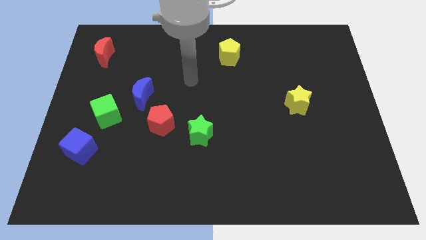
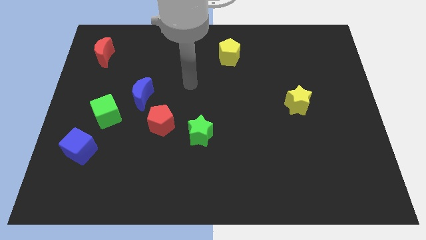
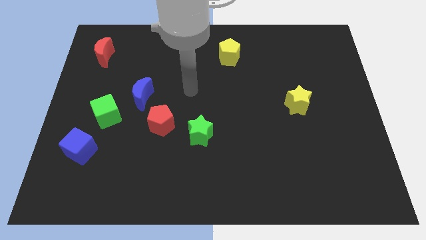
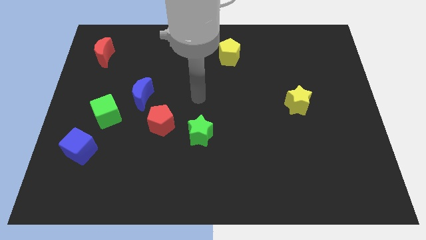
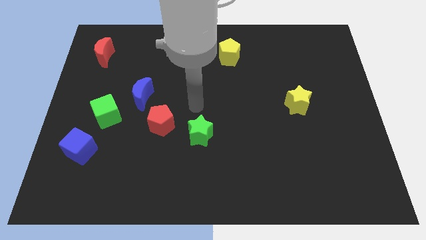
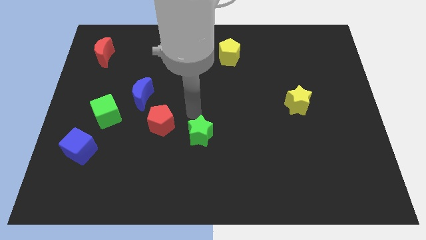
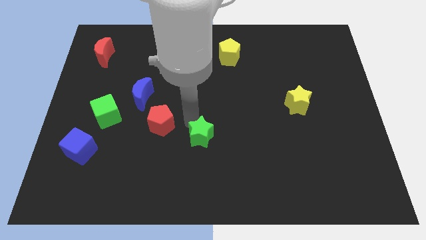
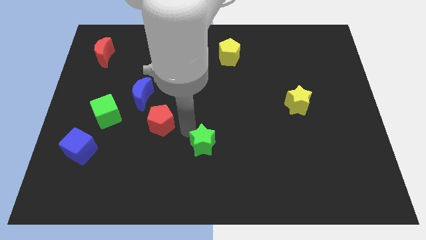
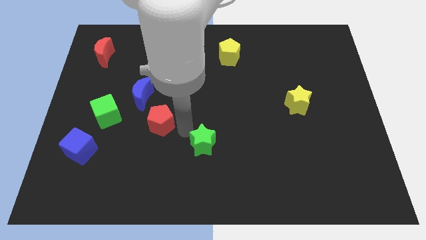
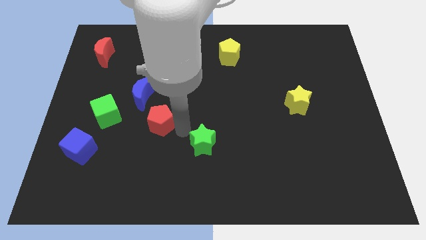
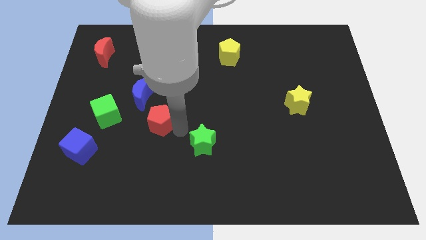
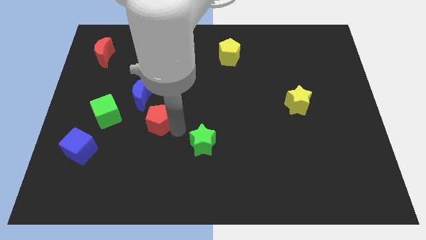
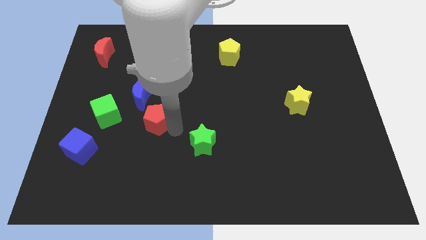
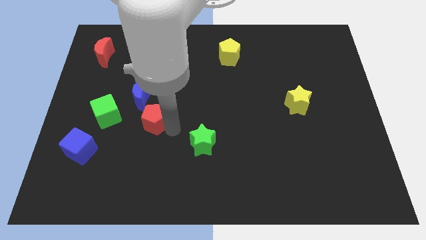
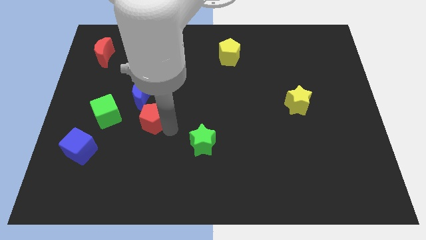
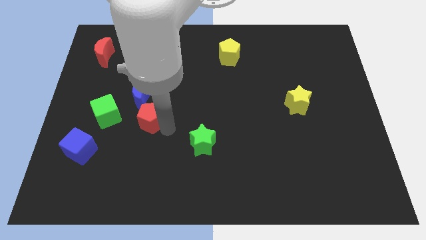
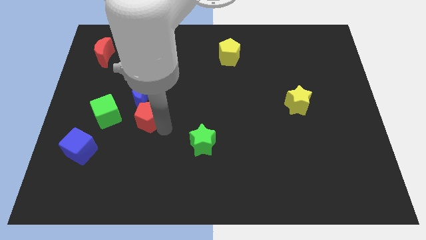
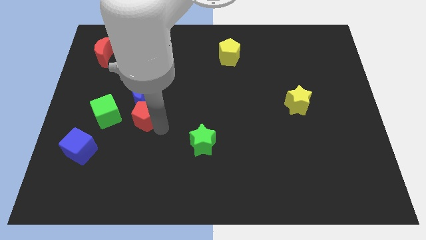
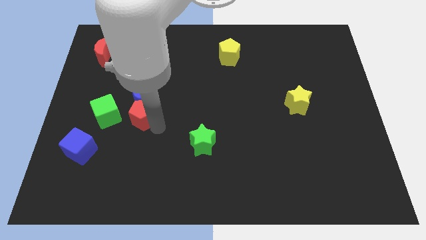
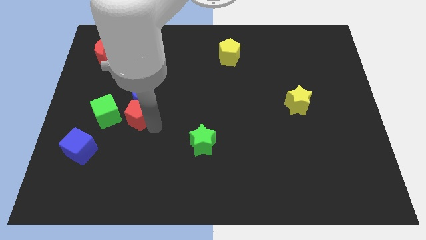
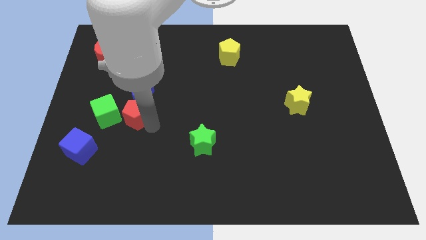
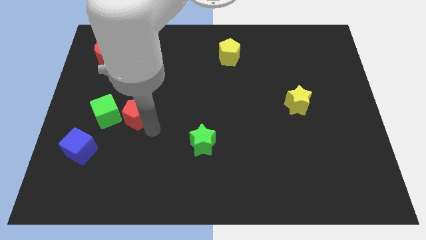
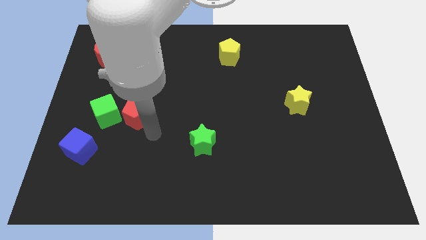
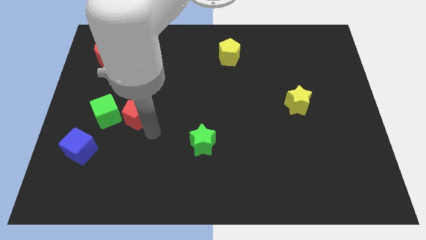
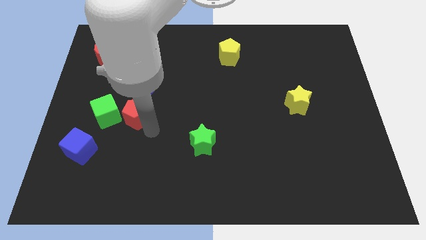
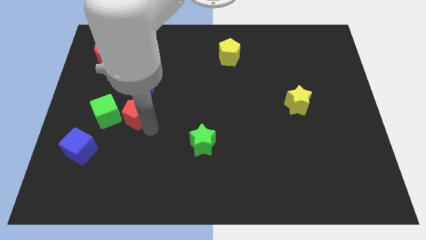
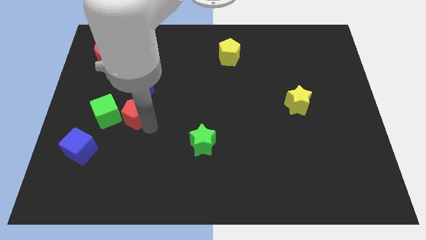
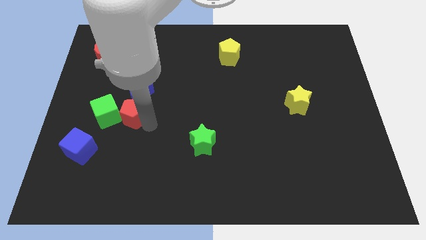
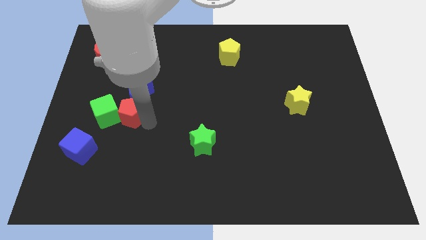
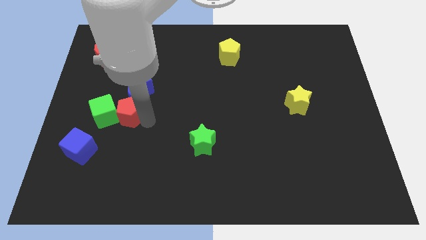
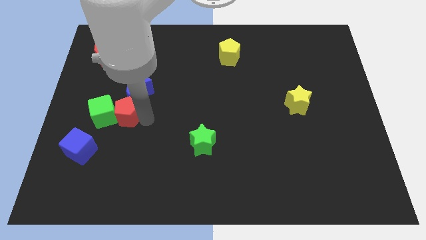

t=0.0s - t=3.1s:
push the red pentagon somewhat up and left diagonally

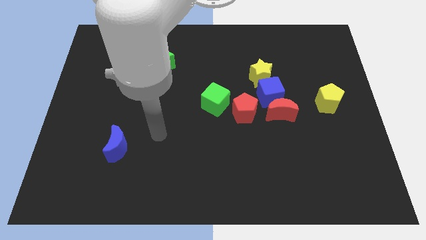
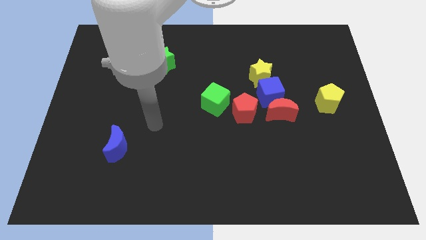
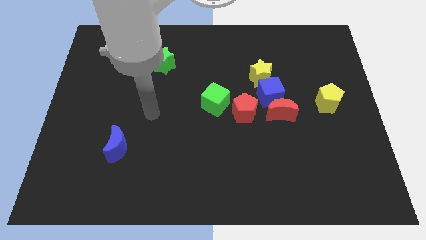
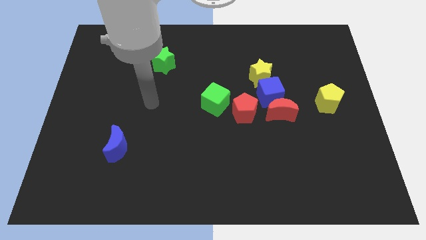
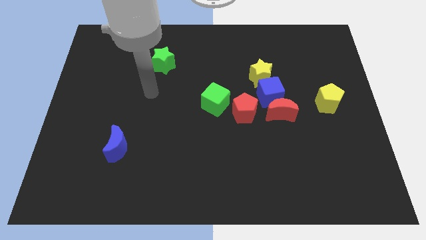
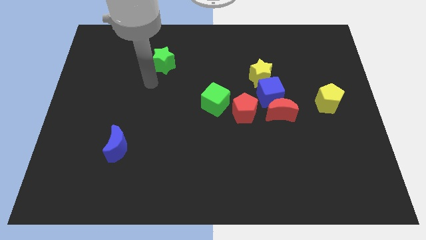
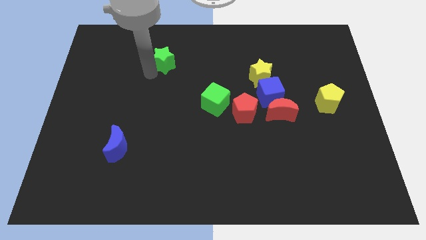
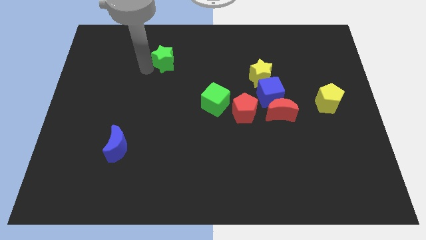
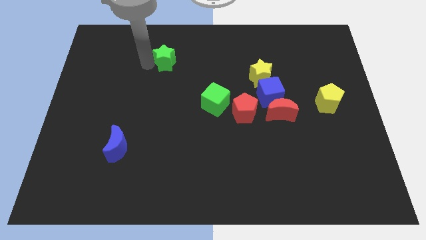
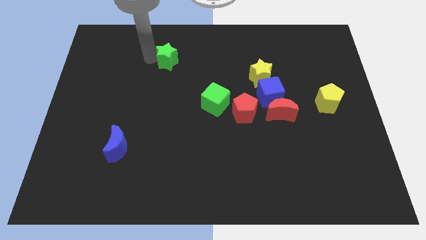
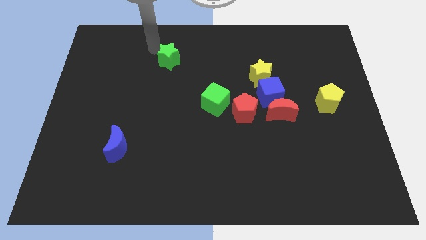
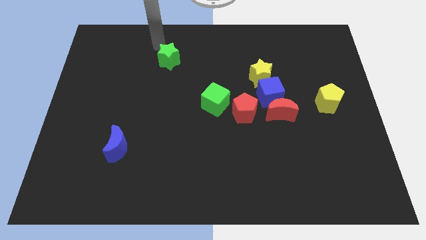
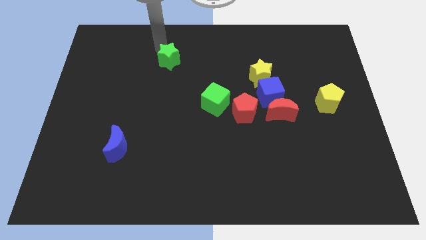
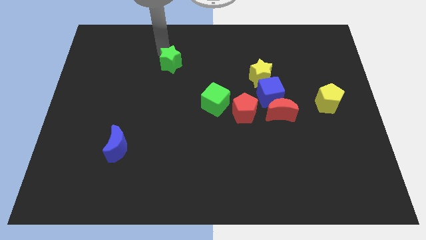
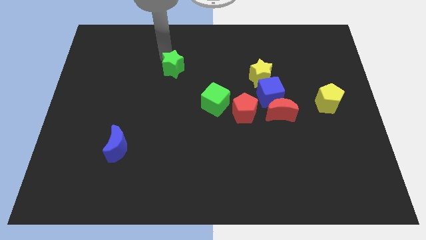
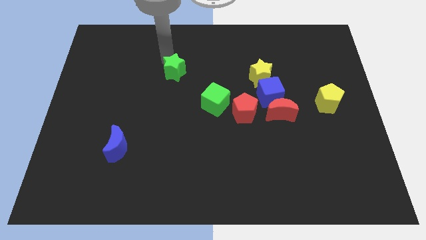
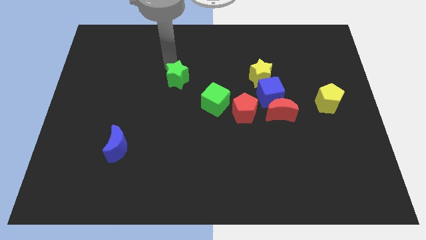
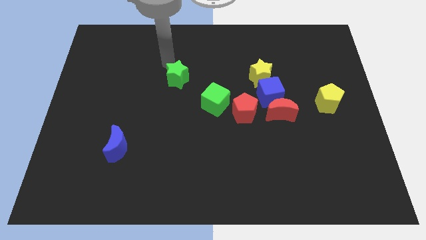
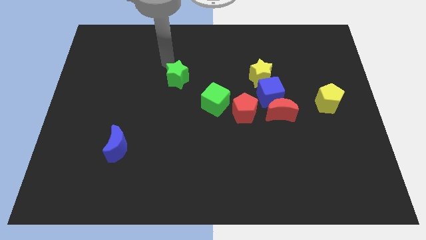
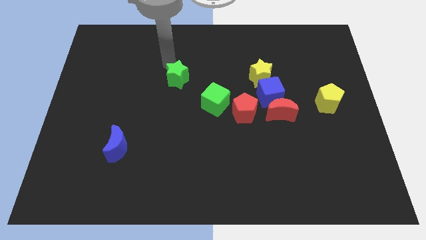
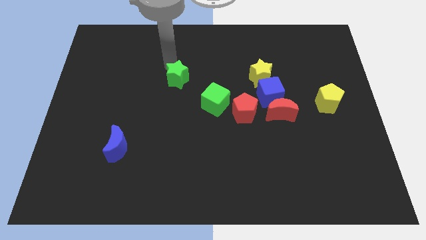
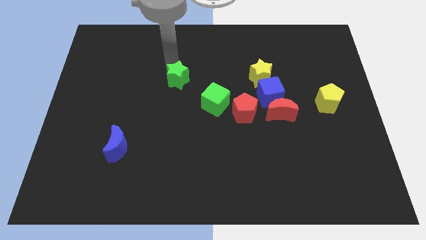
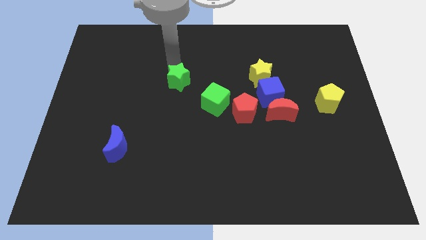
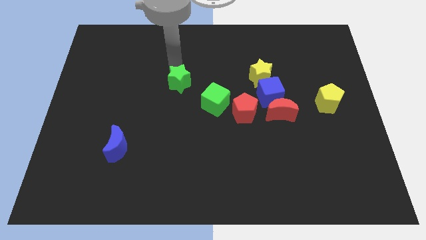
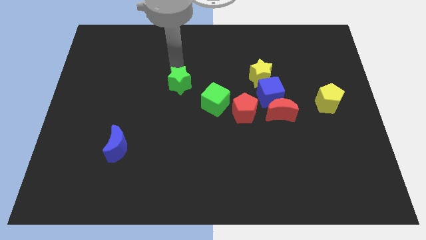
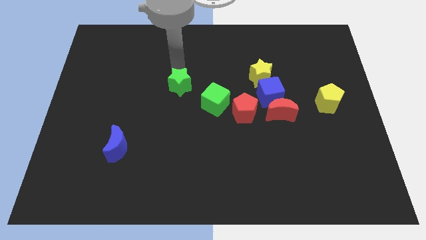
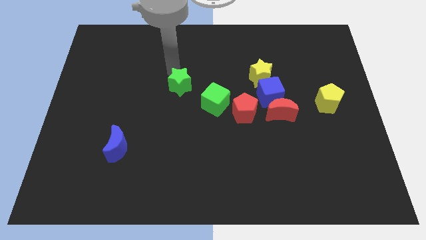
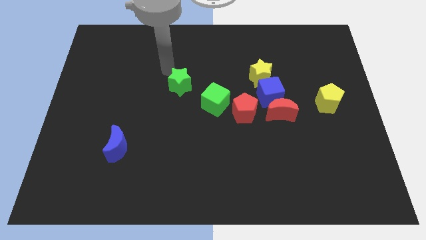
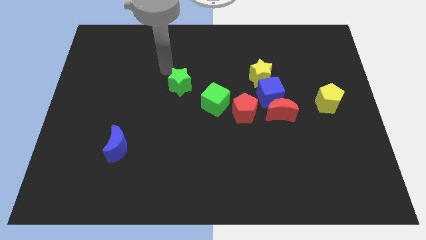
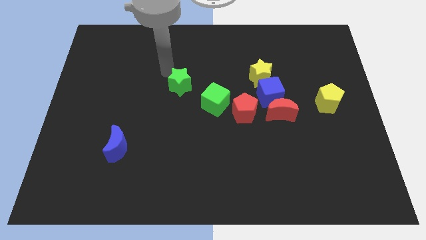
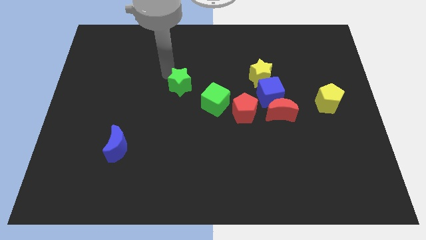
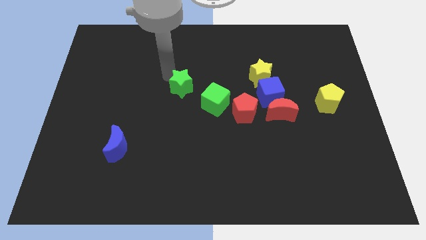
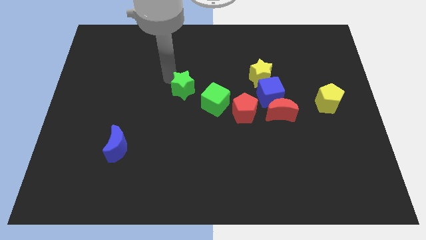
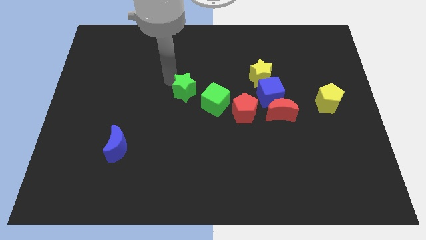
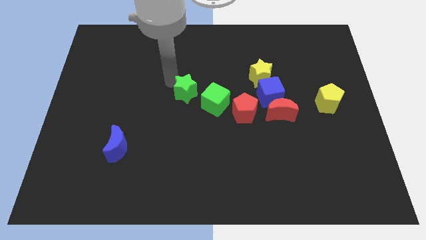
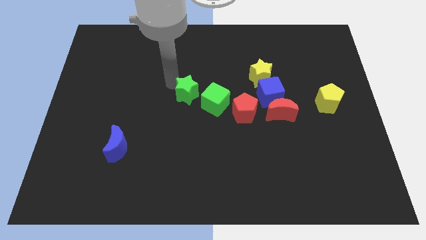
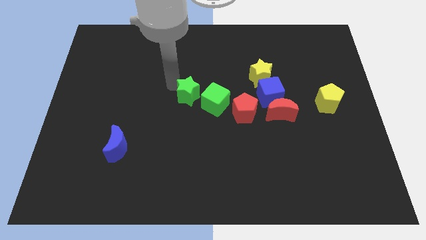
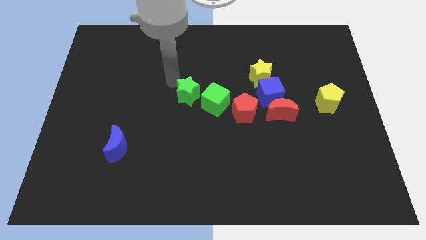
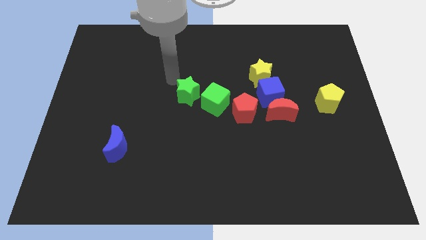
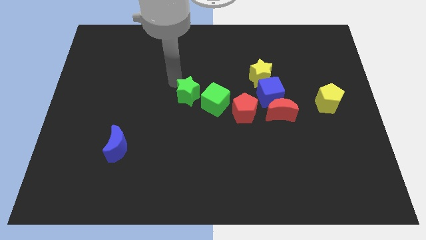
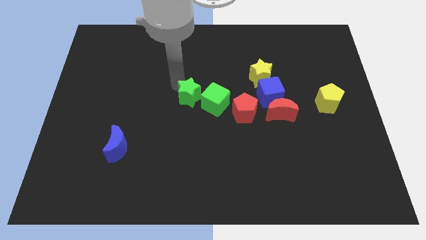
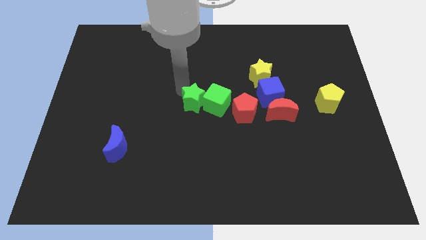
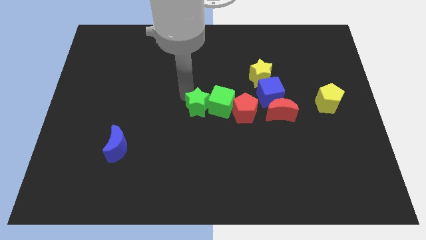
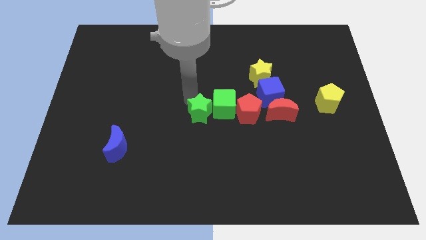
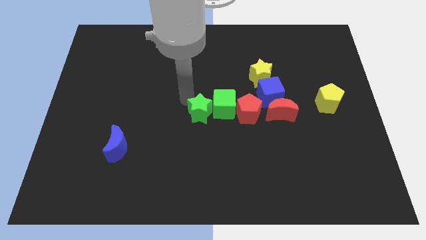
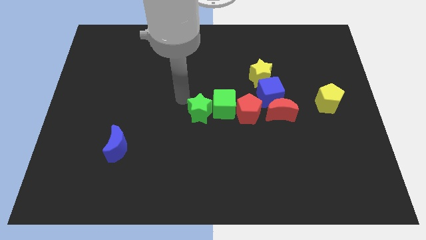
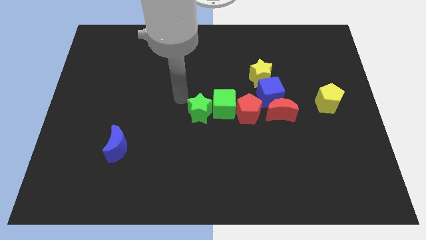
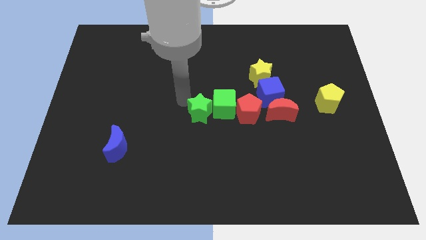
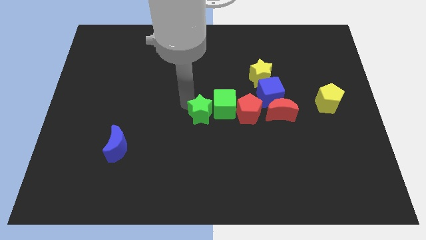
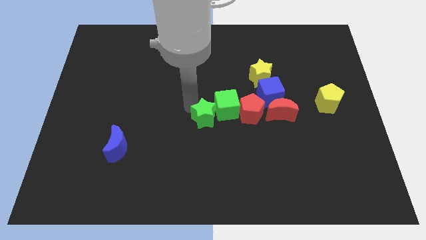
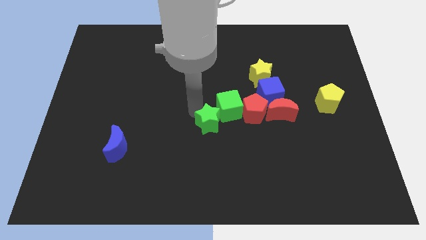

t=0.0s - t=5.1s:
slide the green star diagonally down and to the right
